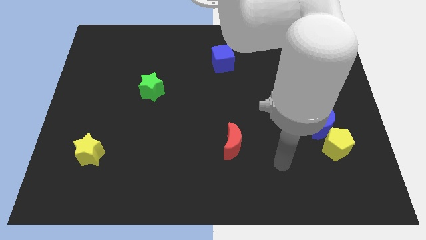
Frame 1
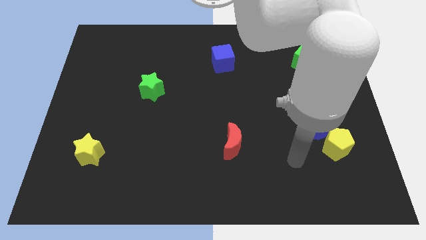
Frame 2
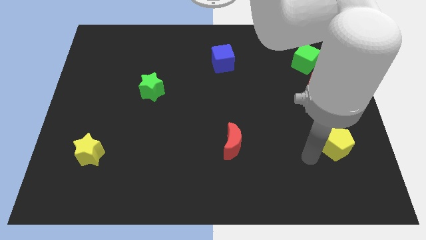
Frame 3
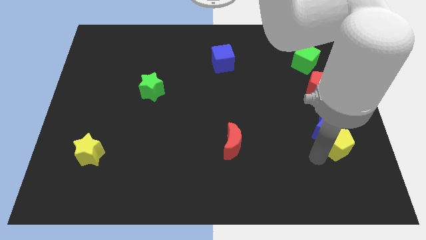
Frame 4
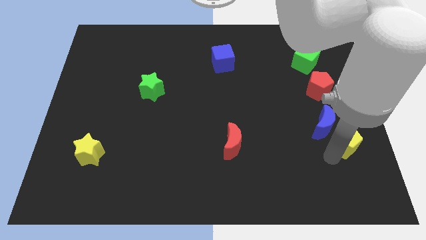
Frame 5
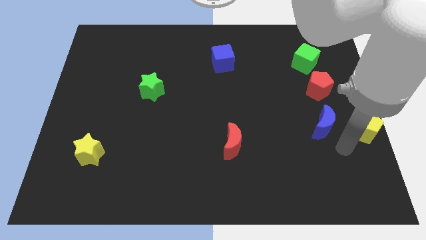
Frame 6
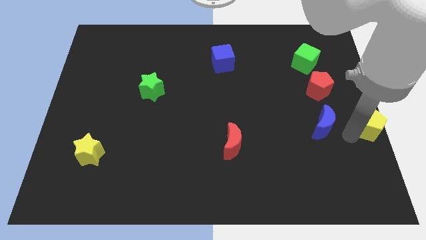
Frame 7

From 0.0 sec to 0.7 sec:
pull the blue moon apart from the yellow pentagon

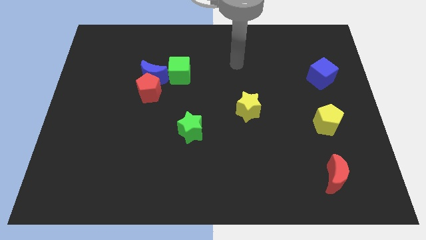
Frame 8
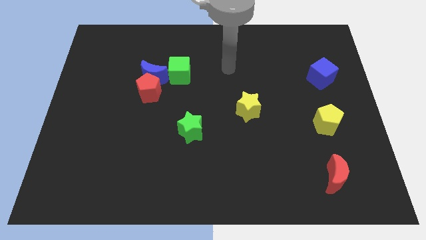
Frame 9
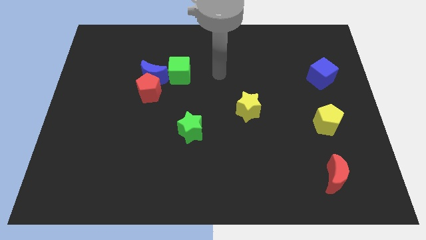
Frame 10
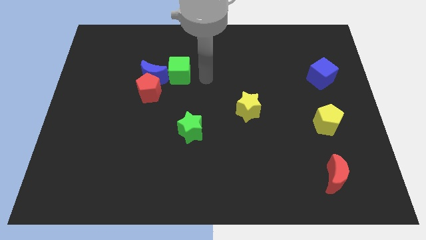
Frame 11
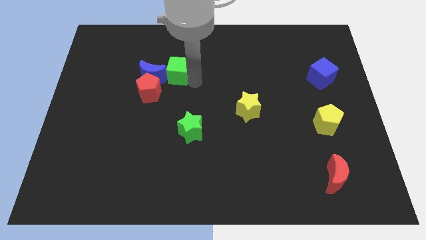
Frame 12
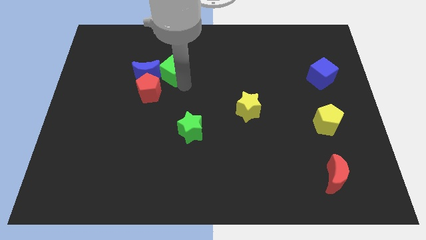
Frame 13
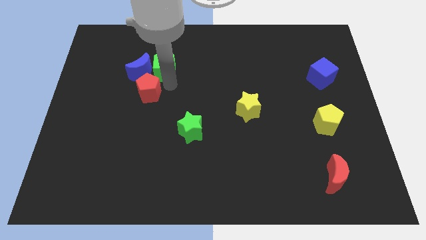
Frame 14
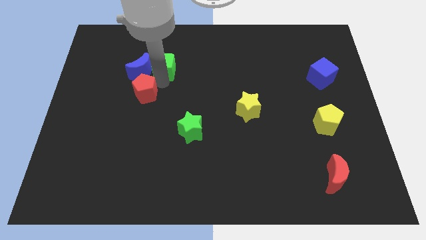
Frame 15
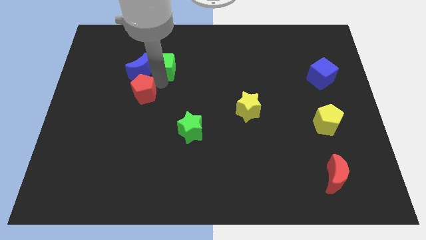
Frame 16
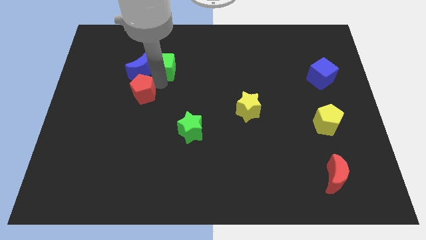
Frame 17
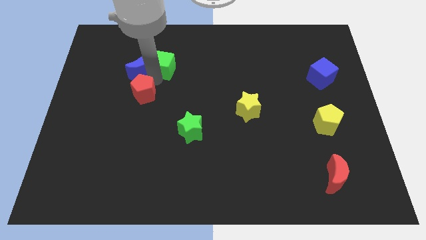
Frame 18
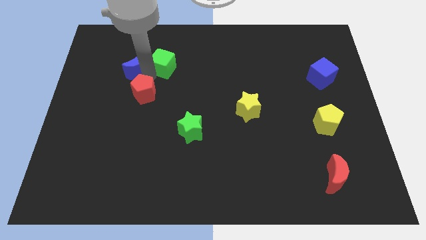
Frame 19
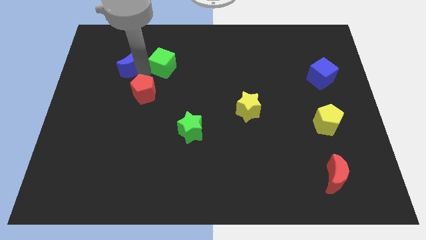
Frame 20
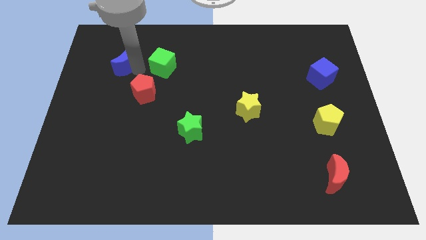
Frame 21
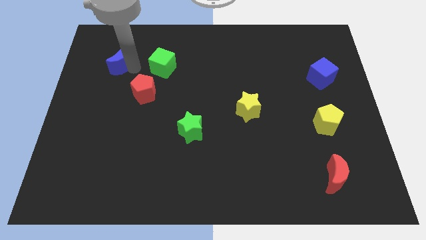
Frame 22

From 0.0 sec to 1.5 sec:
pull the blue moon apart from the red pentagon and green cube

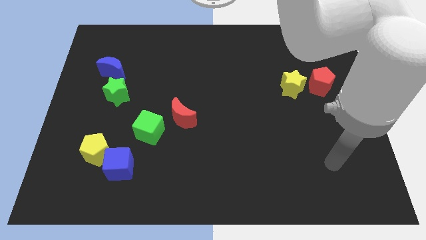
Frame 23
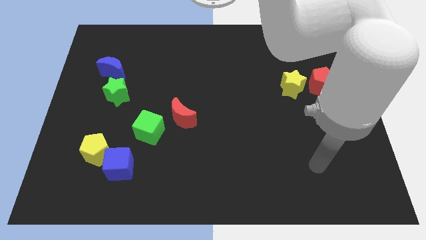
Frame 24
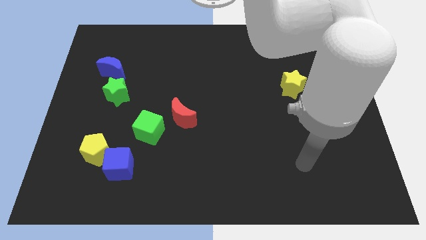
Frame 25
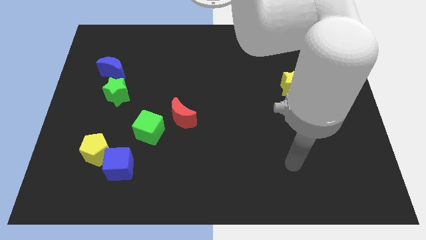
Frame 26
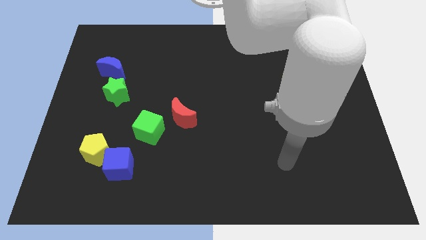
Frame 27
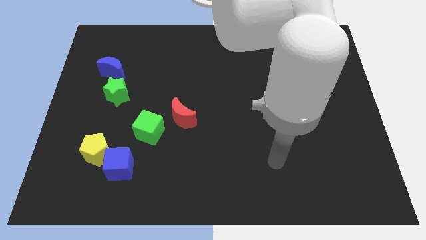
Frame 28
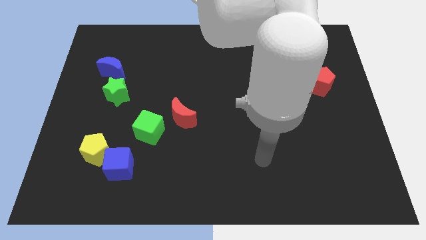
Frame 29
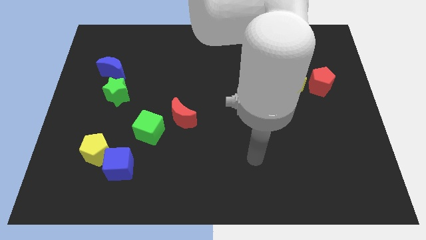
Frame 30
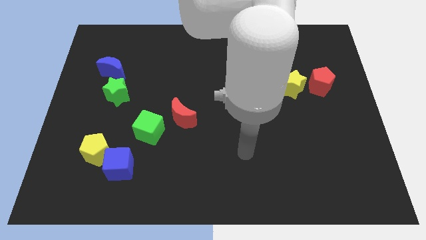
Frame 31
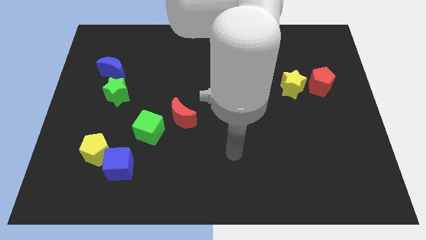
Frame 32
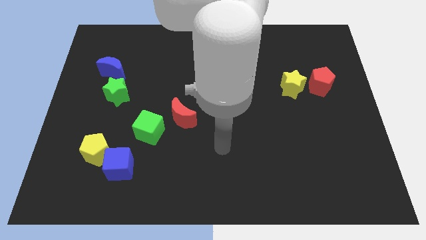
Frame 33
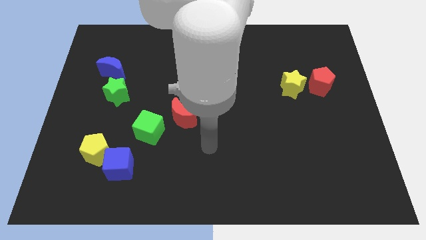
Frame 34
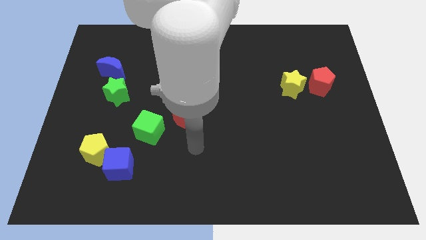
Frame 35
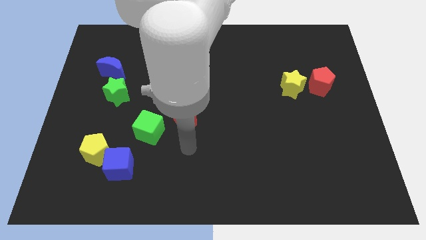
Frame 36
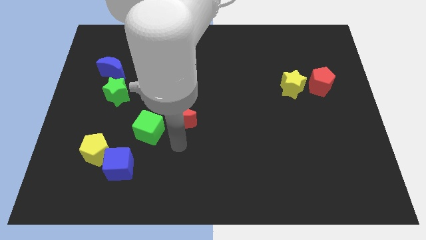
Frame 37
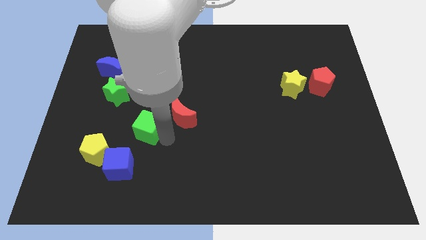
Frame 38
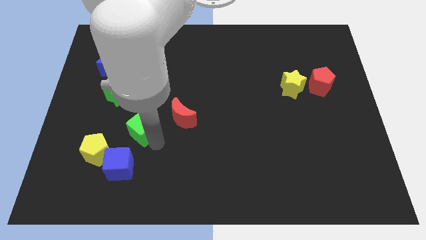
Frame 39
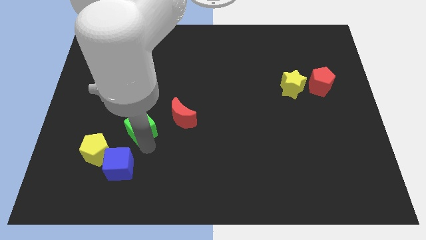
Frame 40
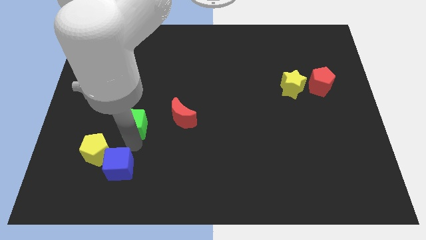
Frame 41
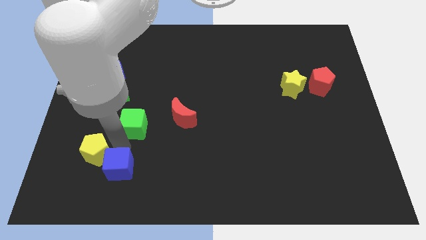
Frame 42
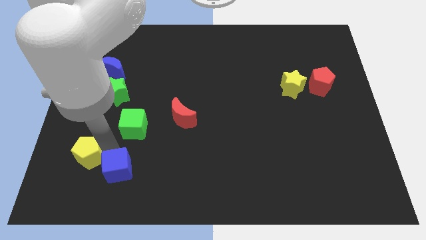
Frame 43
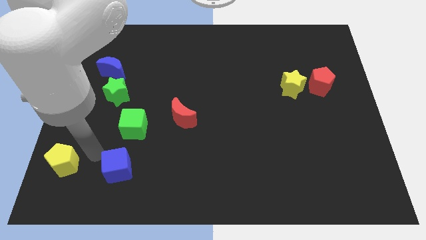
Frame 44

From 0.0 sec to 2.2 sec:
separate the blue cube from the yellow pentagon

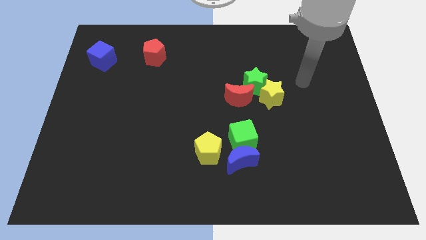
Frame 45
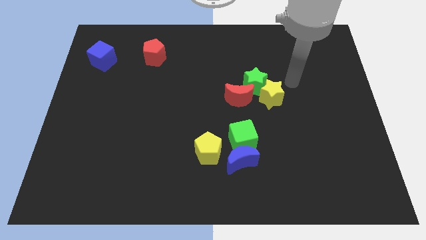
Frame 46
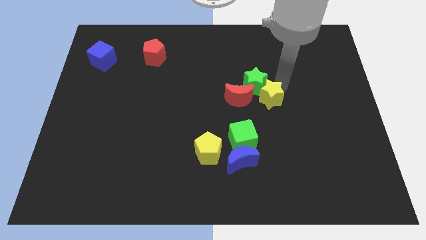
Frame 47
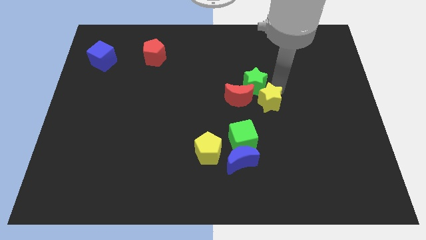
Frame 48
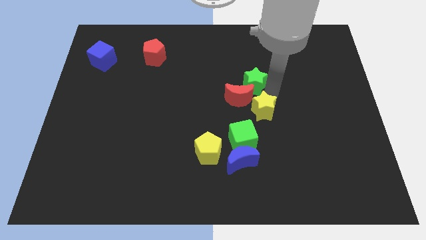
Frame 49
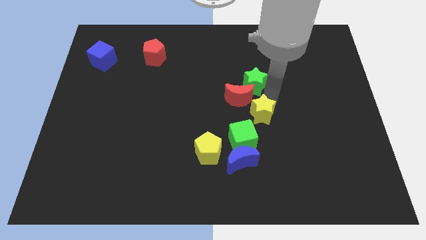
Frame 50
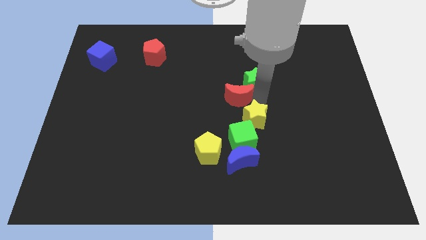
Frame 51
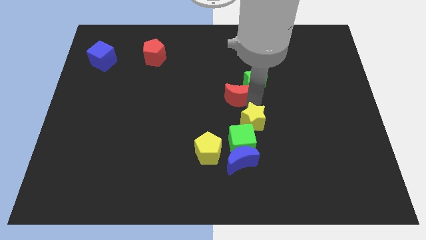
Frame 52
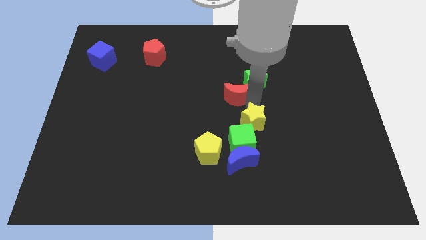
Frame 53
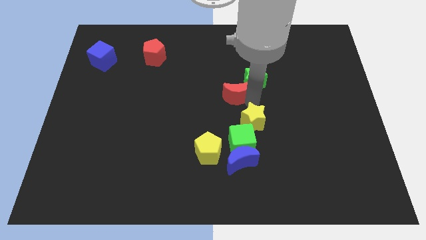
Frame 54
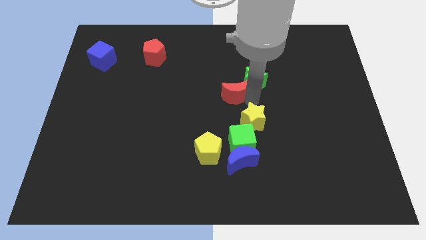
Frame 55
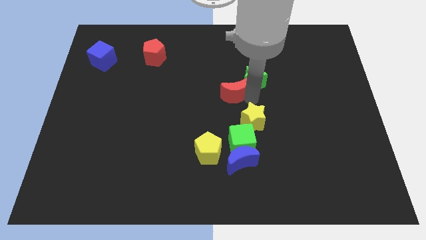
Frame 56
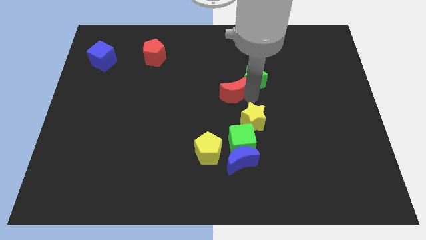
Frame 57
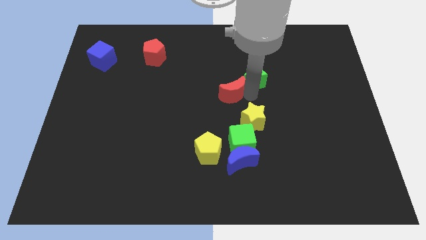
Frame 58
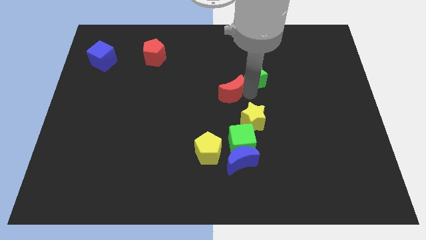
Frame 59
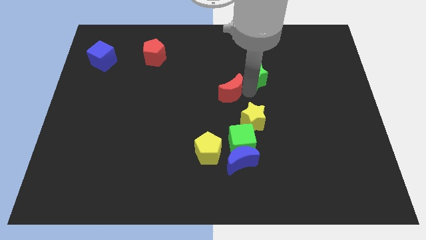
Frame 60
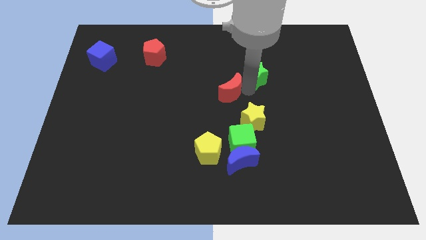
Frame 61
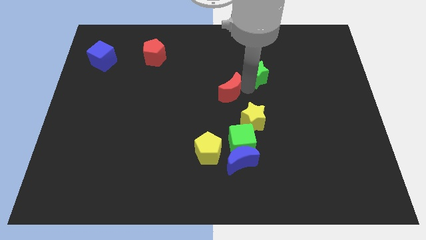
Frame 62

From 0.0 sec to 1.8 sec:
move the green star away from the yellow star and red moon

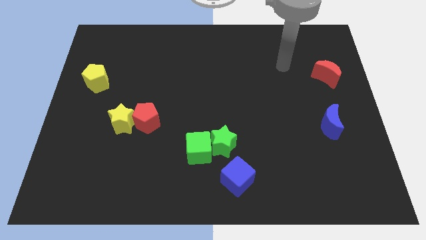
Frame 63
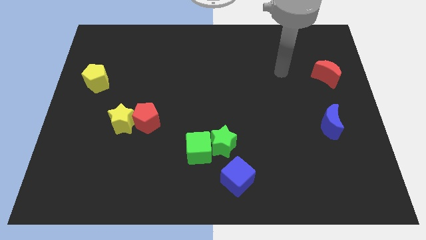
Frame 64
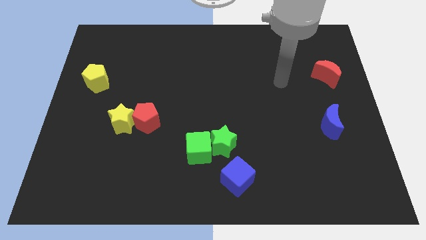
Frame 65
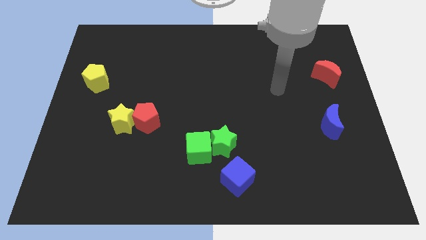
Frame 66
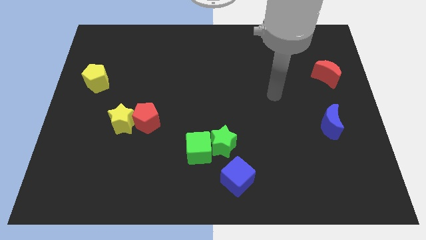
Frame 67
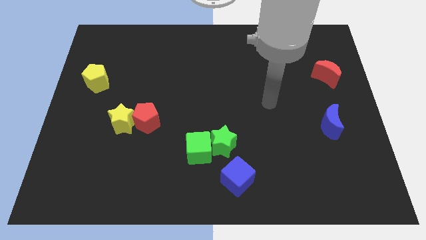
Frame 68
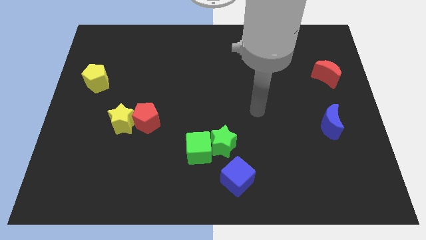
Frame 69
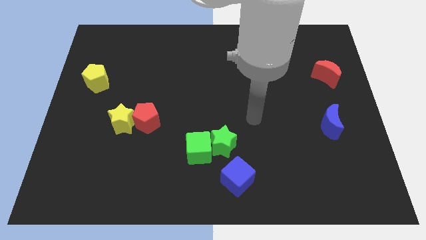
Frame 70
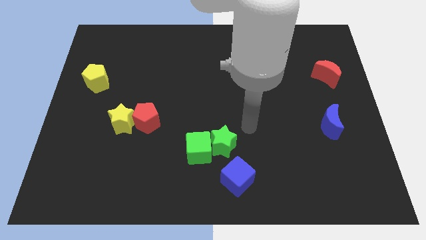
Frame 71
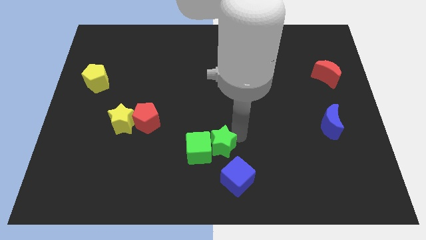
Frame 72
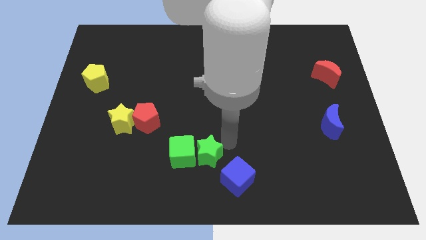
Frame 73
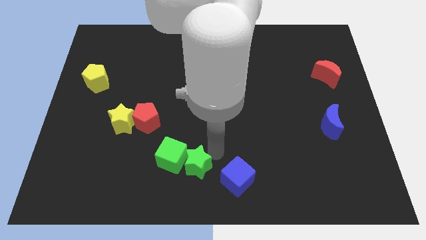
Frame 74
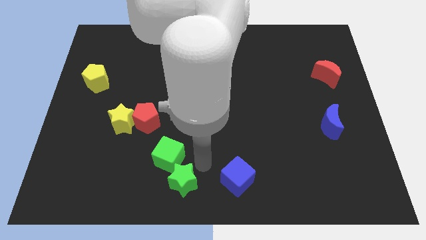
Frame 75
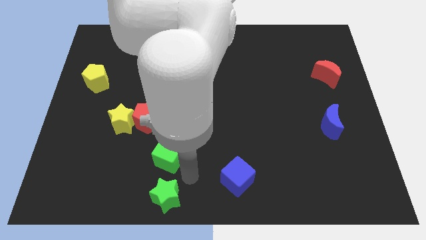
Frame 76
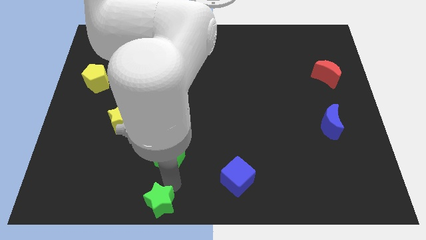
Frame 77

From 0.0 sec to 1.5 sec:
separate the green cube from the green star

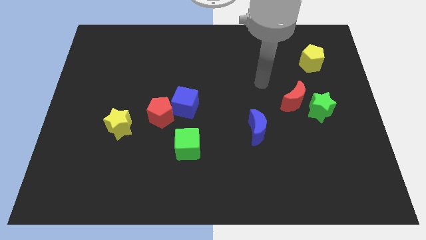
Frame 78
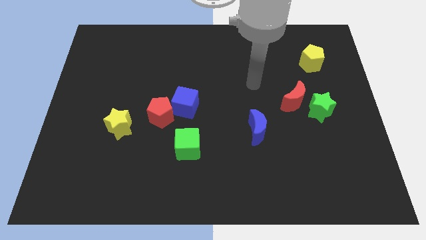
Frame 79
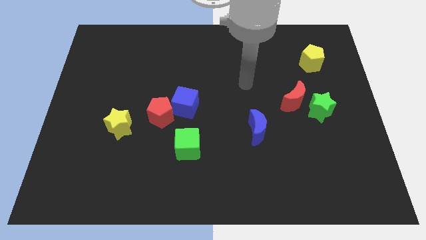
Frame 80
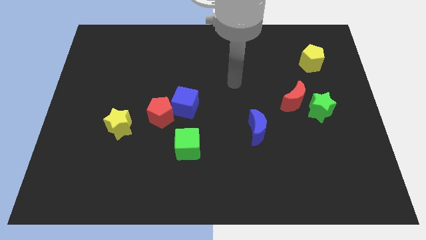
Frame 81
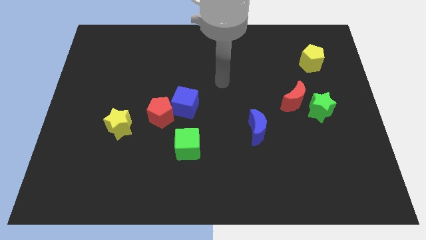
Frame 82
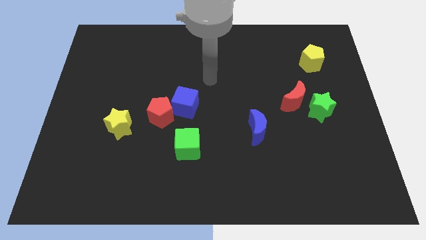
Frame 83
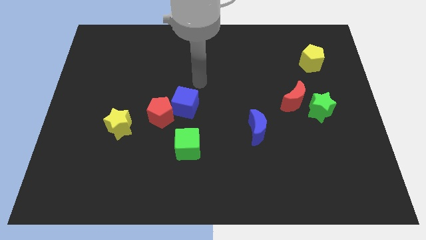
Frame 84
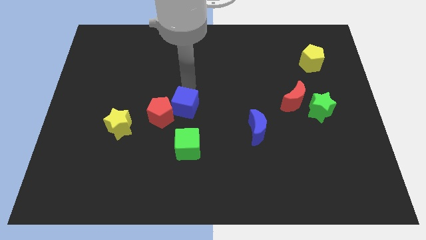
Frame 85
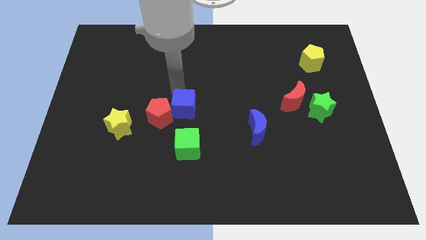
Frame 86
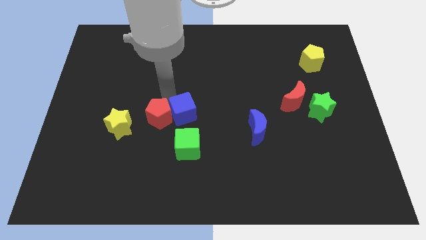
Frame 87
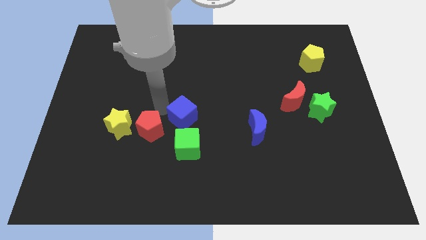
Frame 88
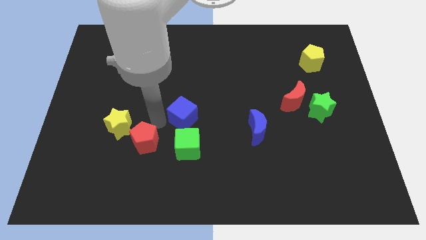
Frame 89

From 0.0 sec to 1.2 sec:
separate the blue cube from the red pentagon

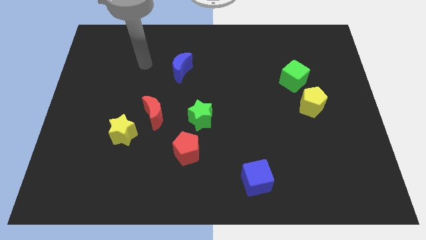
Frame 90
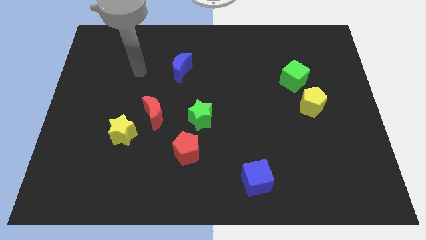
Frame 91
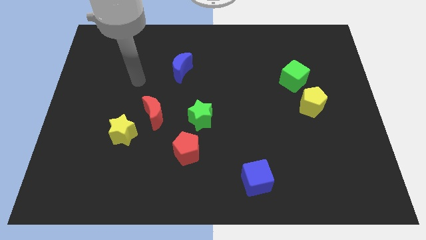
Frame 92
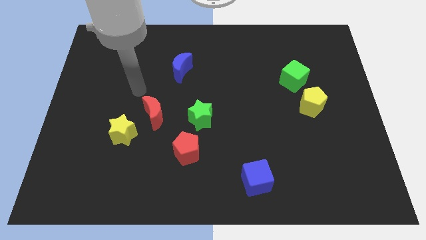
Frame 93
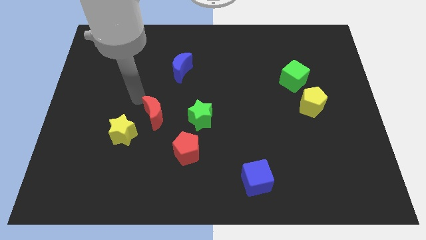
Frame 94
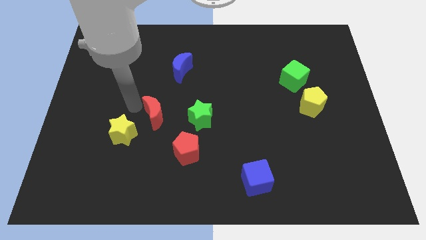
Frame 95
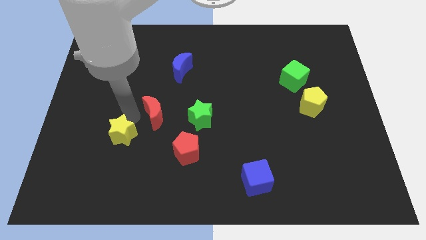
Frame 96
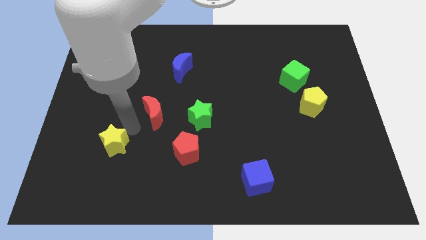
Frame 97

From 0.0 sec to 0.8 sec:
pull the red moon apart from the yellow star
